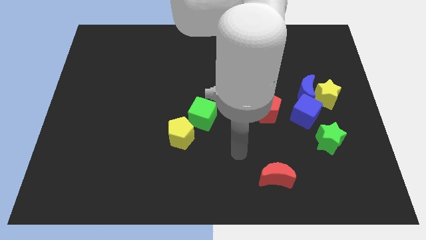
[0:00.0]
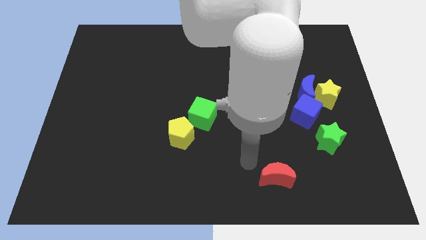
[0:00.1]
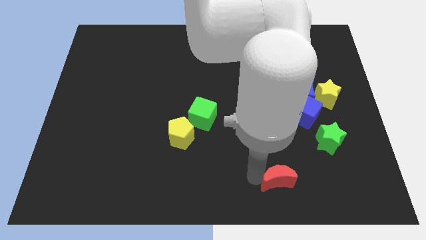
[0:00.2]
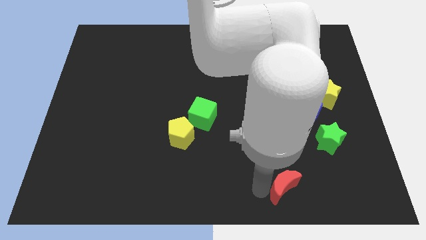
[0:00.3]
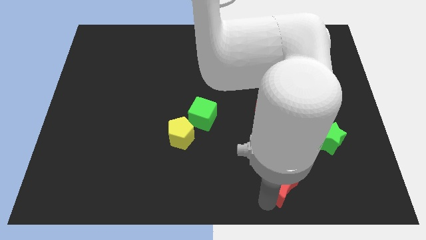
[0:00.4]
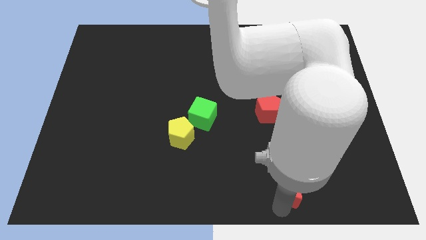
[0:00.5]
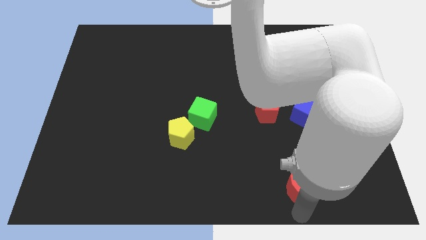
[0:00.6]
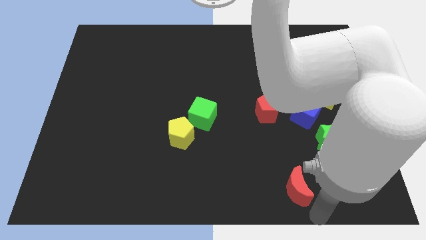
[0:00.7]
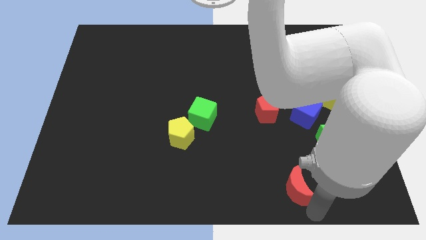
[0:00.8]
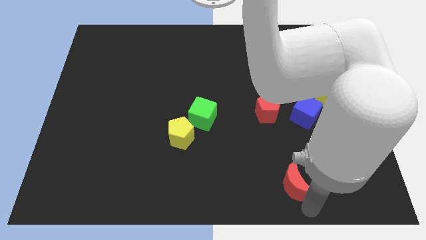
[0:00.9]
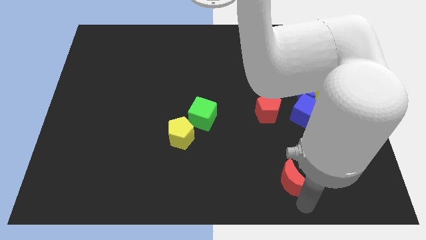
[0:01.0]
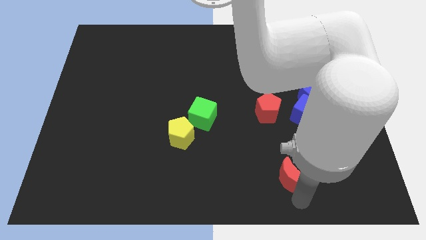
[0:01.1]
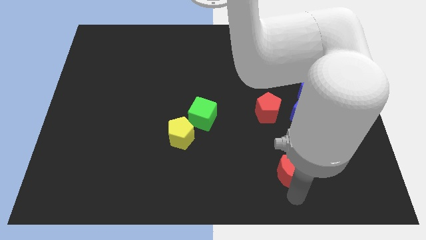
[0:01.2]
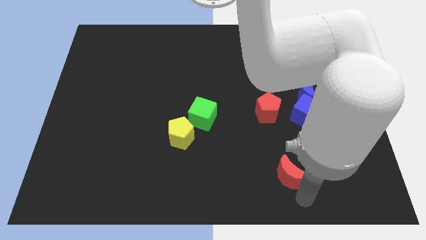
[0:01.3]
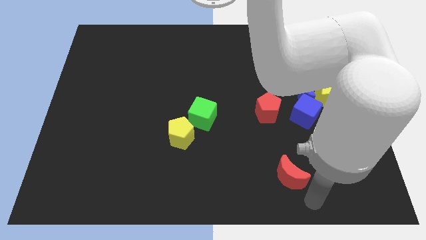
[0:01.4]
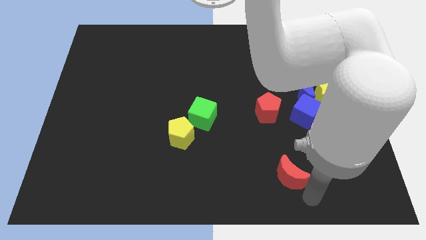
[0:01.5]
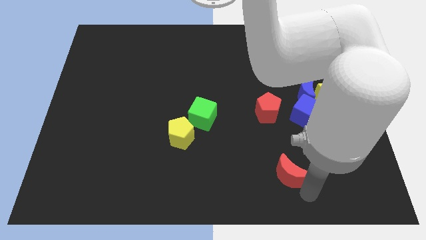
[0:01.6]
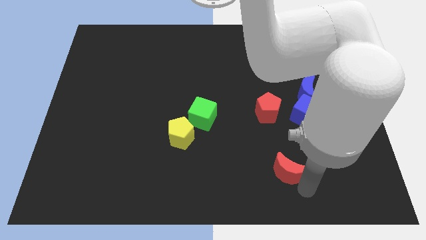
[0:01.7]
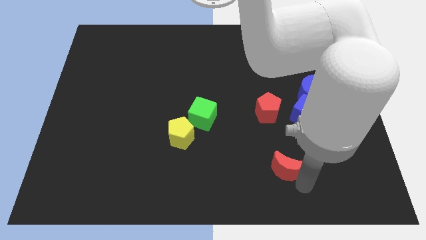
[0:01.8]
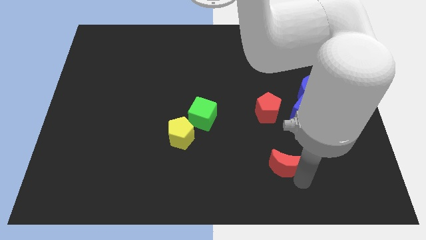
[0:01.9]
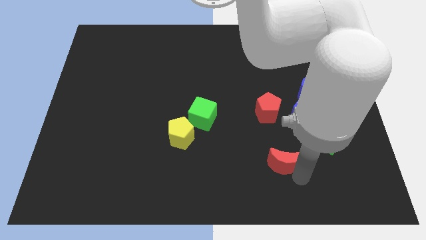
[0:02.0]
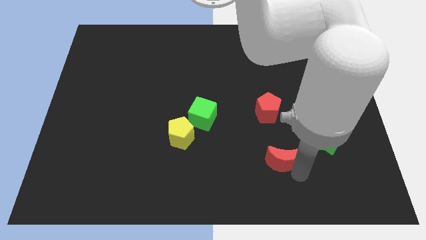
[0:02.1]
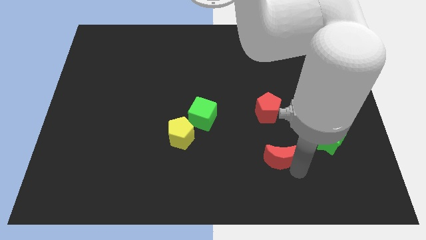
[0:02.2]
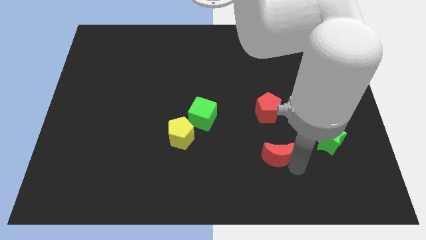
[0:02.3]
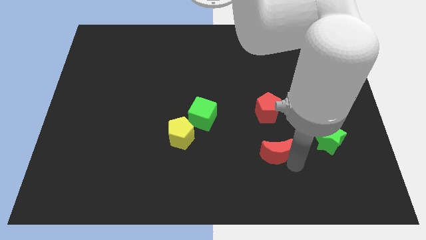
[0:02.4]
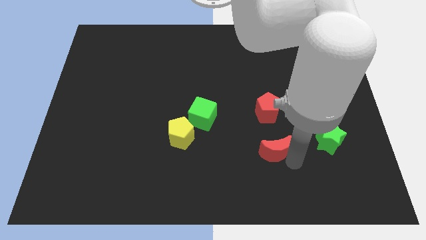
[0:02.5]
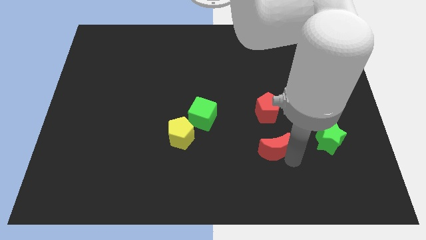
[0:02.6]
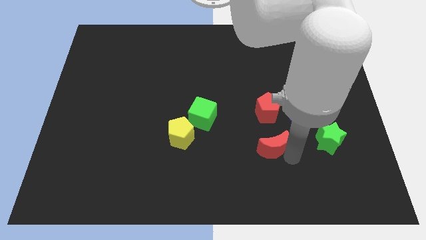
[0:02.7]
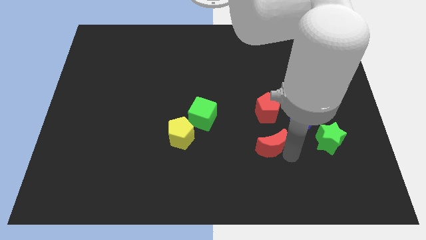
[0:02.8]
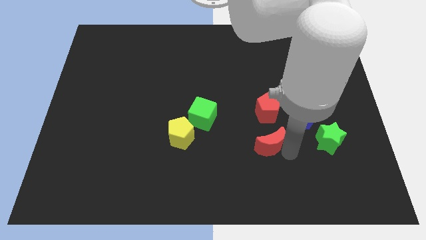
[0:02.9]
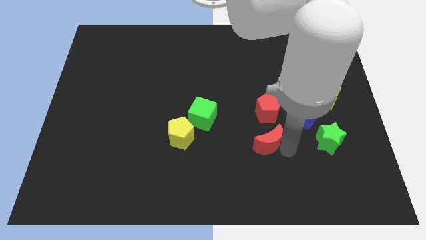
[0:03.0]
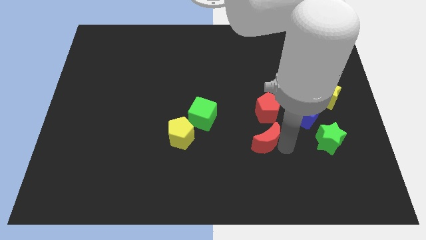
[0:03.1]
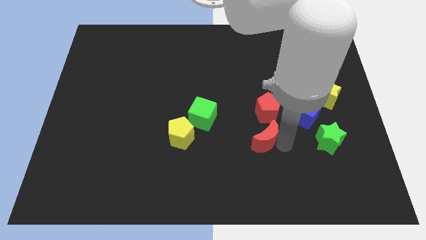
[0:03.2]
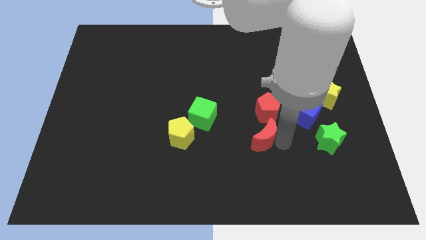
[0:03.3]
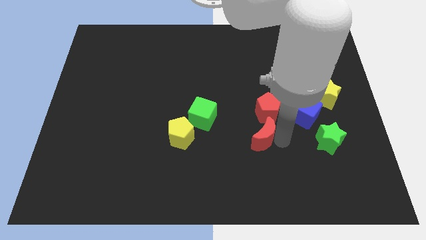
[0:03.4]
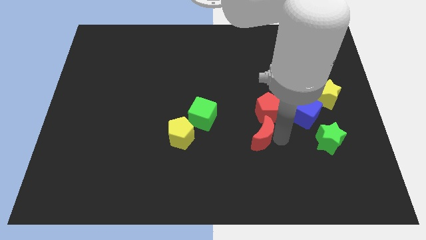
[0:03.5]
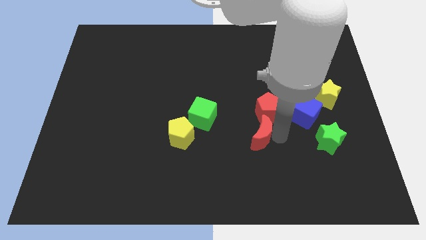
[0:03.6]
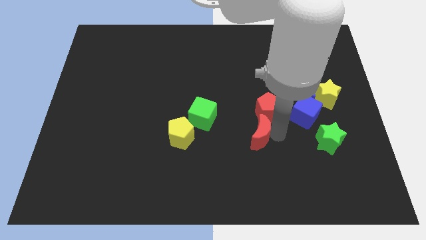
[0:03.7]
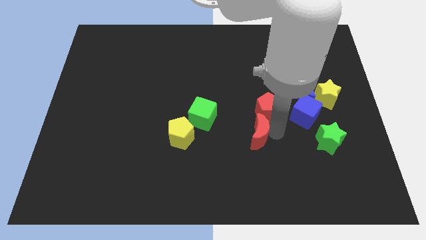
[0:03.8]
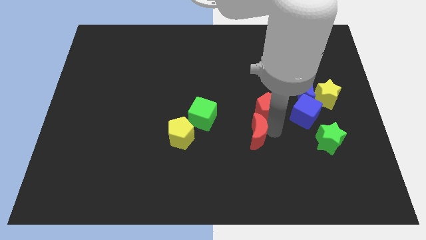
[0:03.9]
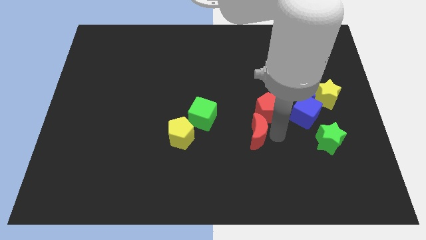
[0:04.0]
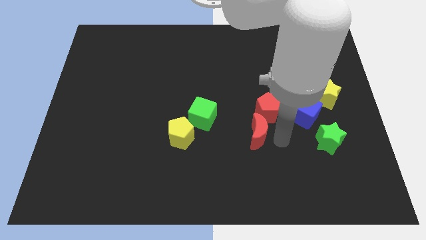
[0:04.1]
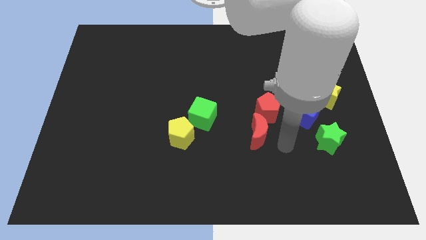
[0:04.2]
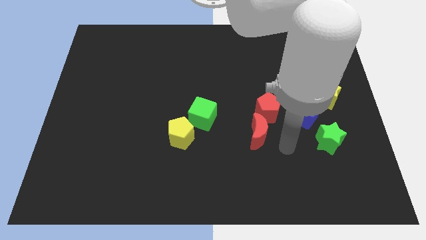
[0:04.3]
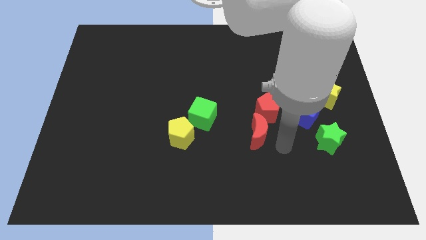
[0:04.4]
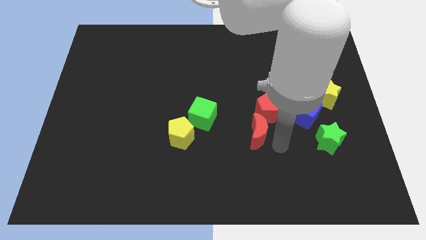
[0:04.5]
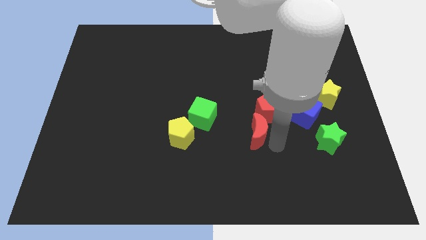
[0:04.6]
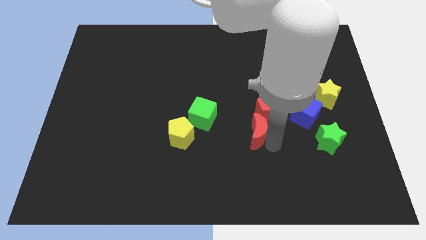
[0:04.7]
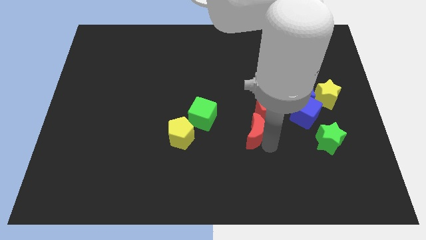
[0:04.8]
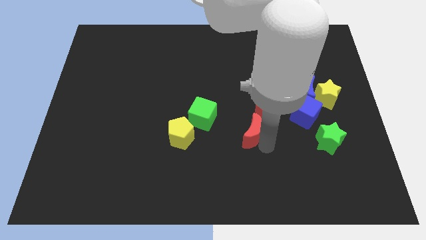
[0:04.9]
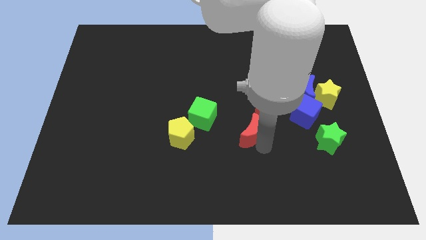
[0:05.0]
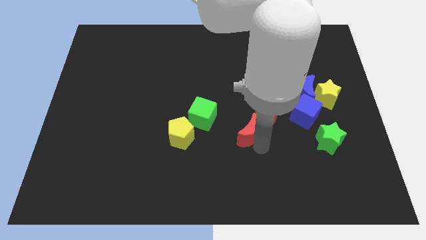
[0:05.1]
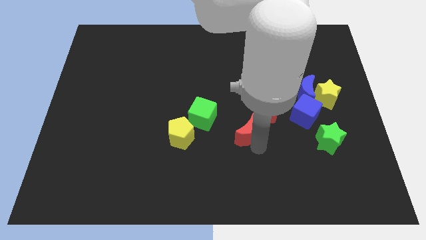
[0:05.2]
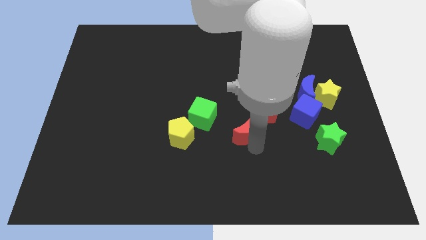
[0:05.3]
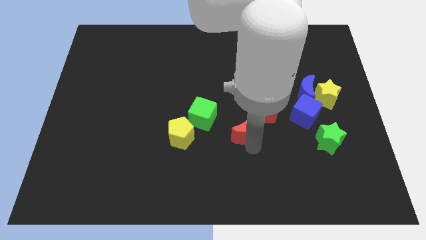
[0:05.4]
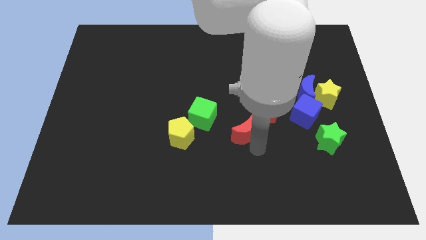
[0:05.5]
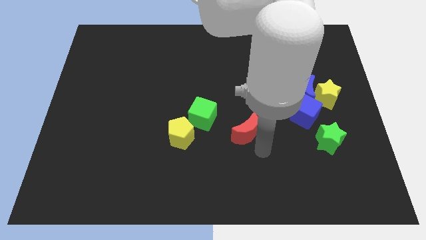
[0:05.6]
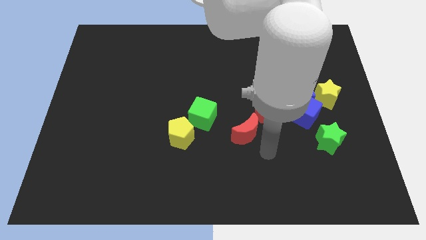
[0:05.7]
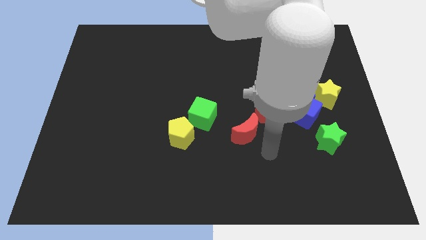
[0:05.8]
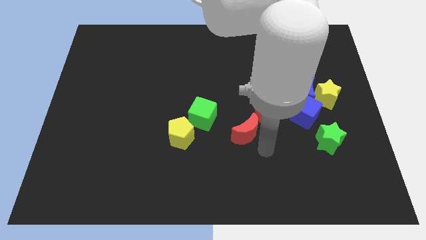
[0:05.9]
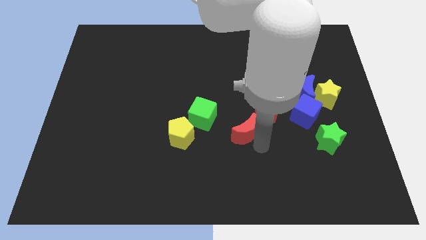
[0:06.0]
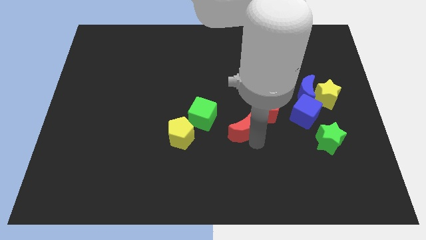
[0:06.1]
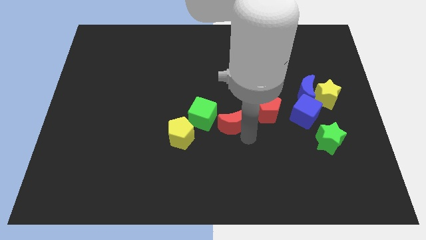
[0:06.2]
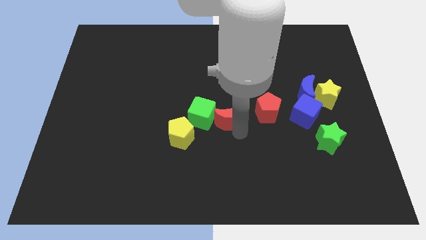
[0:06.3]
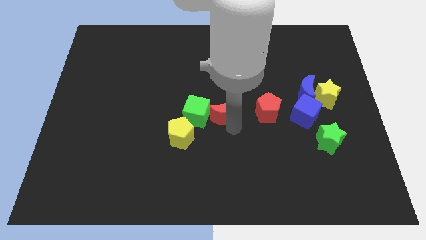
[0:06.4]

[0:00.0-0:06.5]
slide the red moon to the top right of the green cube

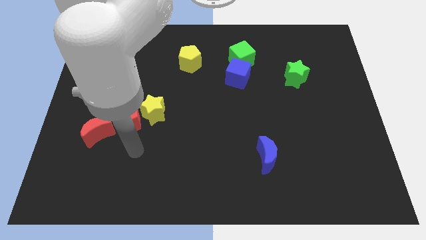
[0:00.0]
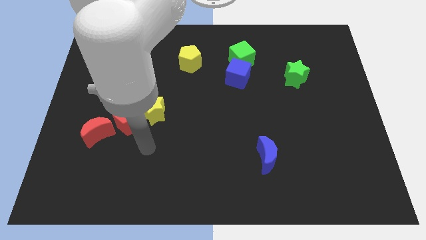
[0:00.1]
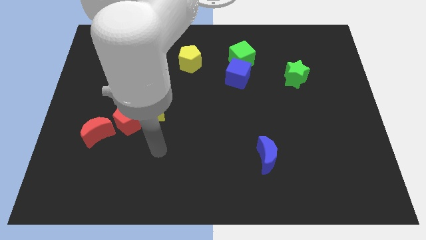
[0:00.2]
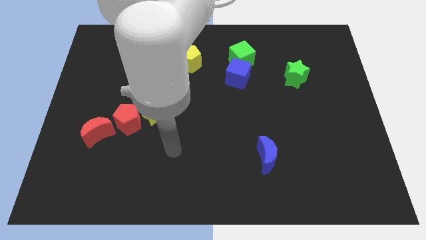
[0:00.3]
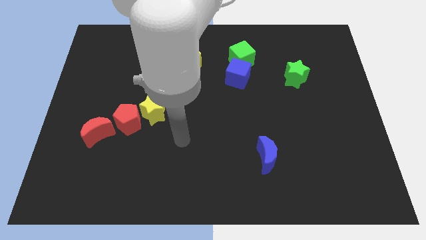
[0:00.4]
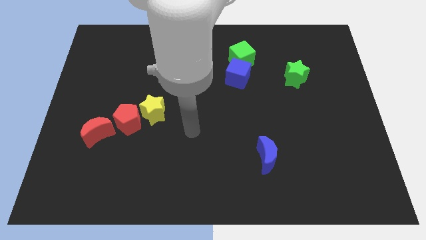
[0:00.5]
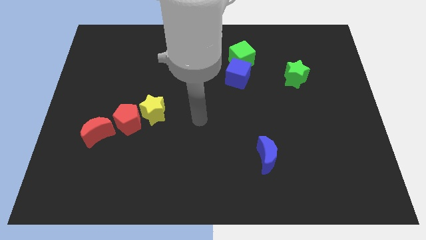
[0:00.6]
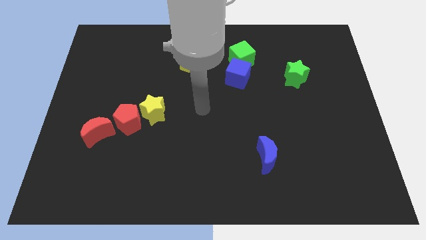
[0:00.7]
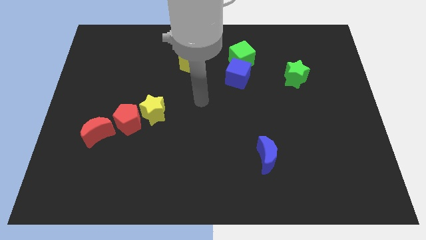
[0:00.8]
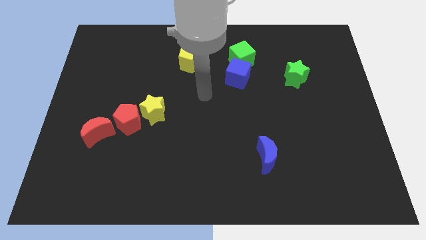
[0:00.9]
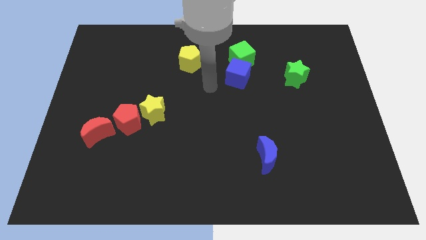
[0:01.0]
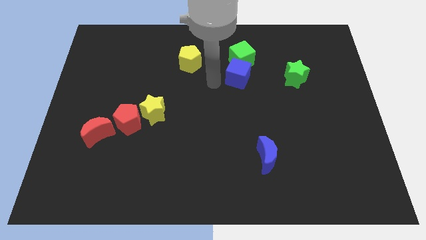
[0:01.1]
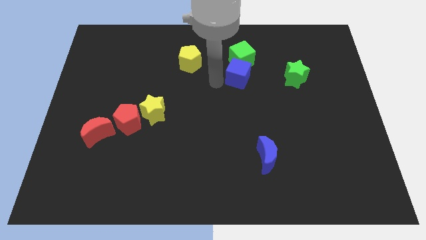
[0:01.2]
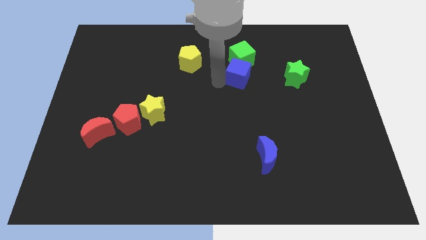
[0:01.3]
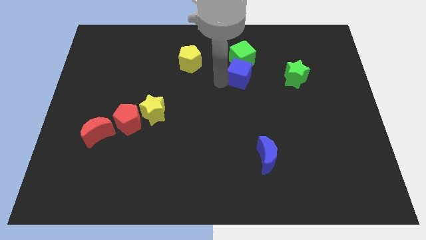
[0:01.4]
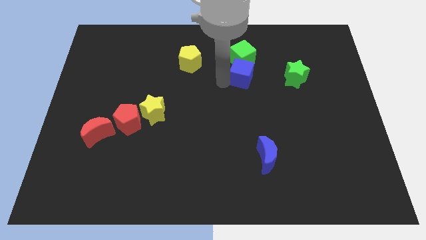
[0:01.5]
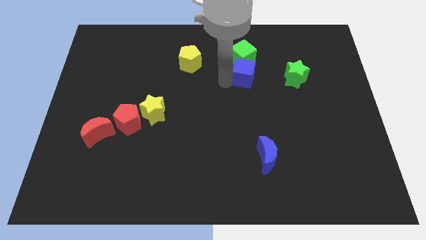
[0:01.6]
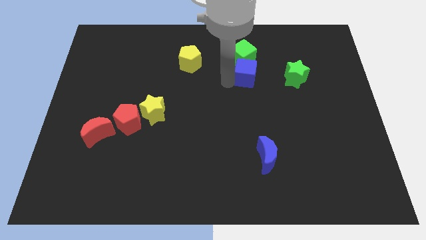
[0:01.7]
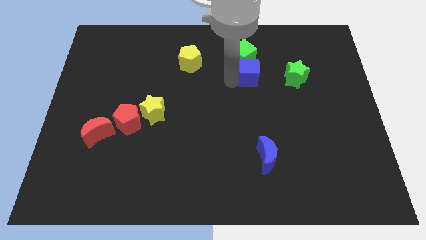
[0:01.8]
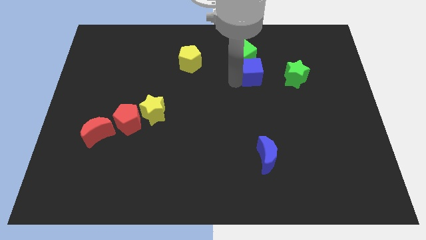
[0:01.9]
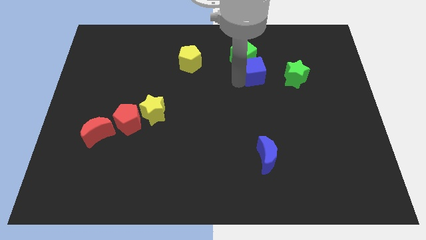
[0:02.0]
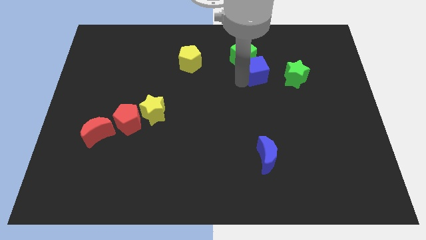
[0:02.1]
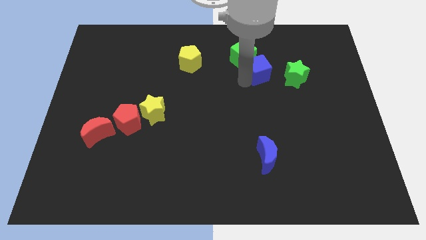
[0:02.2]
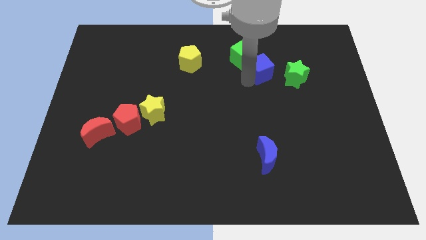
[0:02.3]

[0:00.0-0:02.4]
move the blue cube to the top left of the green star
